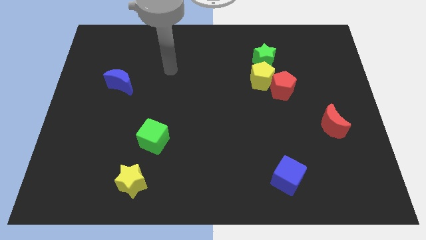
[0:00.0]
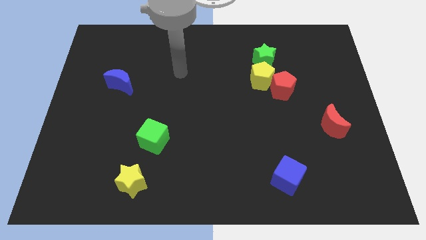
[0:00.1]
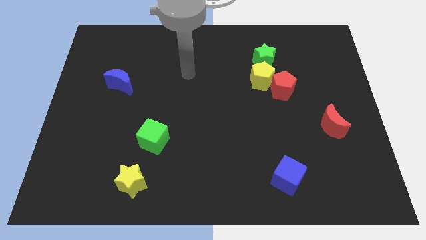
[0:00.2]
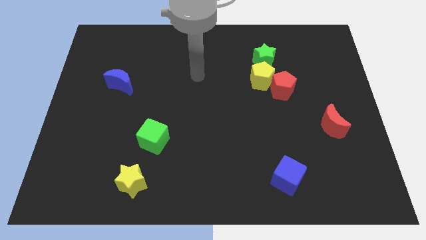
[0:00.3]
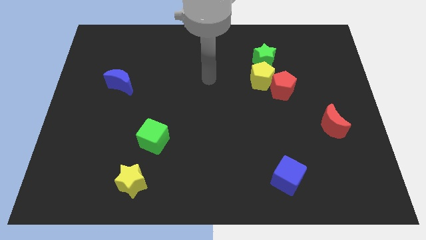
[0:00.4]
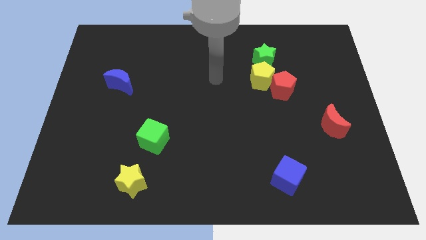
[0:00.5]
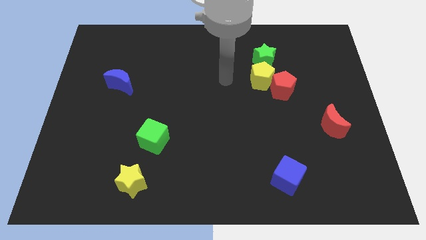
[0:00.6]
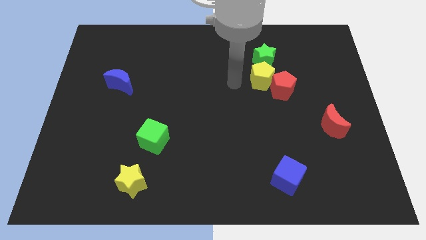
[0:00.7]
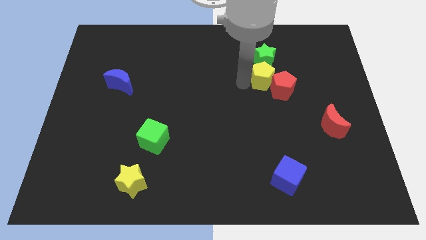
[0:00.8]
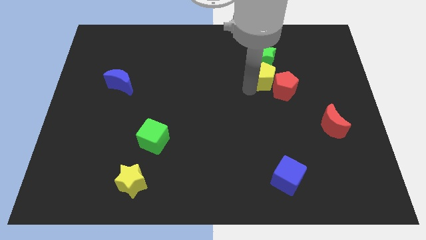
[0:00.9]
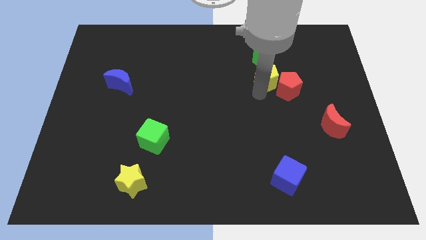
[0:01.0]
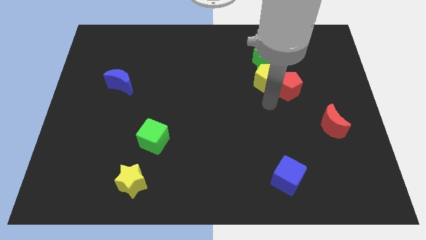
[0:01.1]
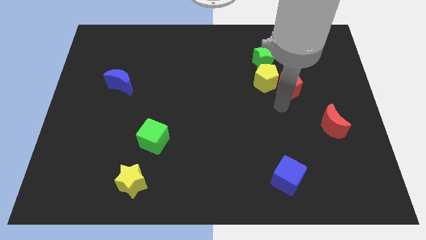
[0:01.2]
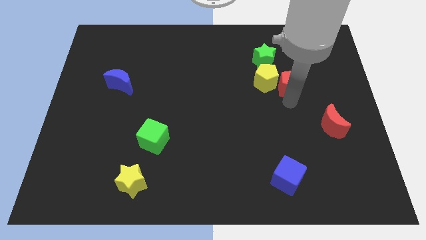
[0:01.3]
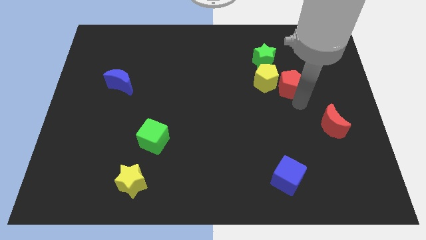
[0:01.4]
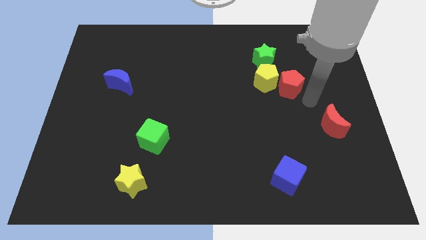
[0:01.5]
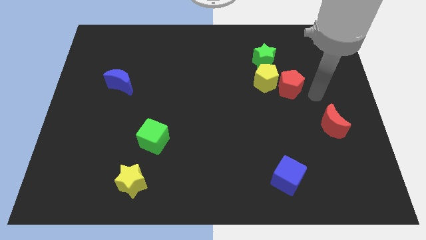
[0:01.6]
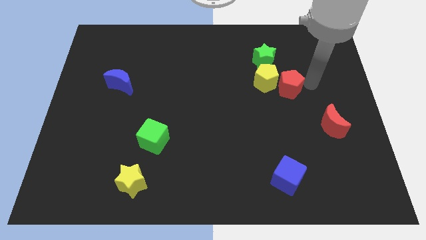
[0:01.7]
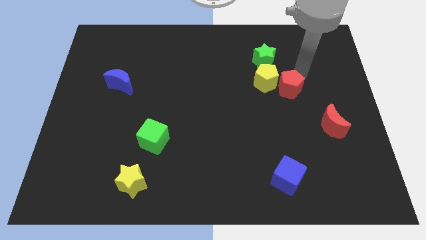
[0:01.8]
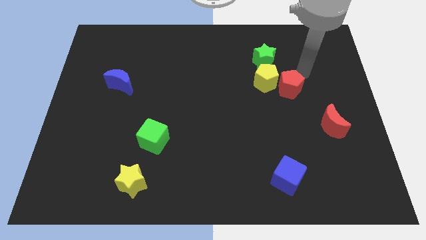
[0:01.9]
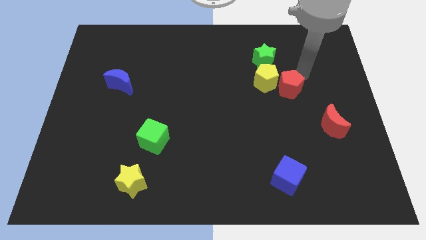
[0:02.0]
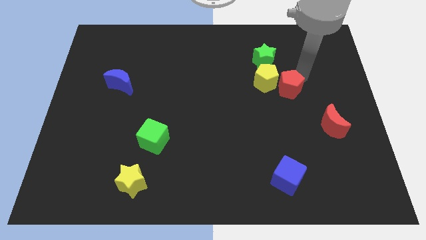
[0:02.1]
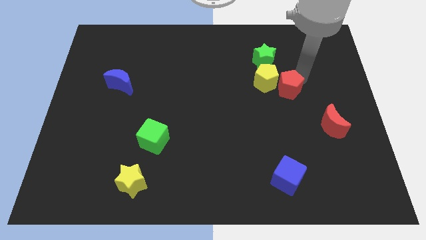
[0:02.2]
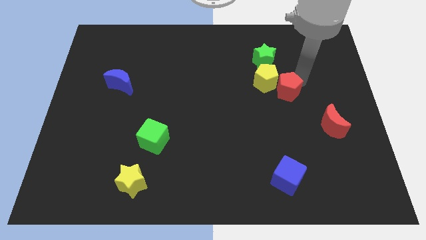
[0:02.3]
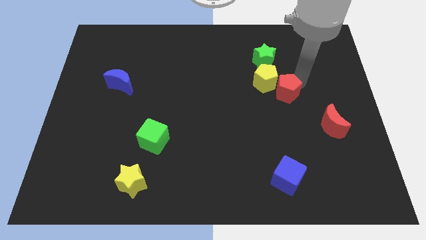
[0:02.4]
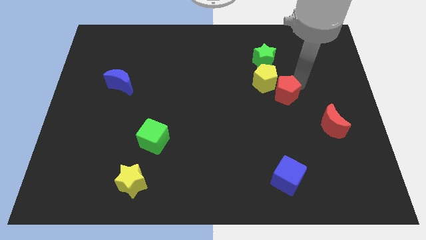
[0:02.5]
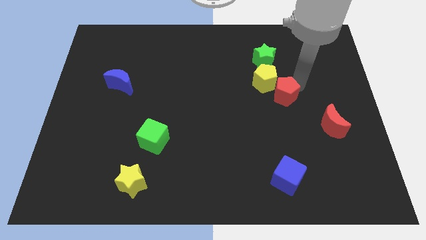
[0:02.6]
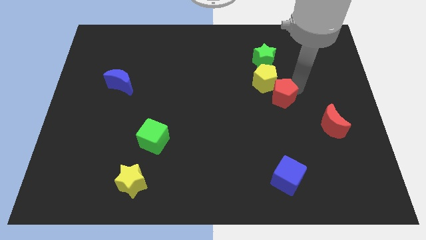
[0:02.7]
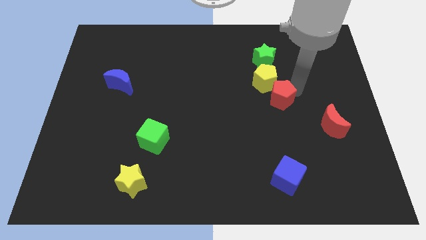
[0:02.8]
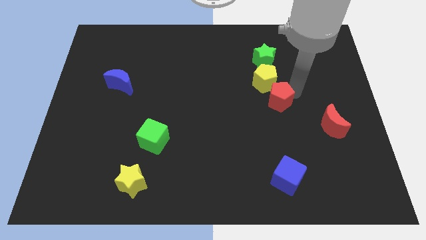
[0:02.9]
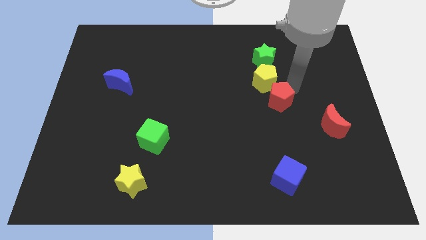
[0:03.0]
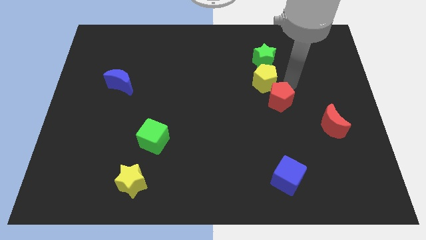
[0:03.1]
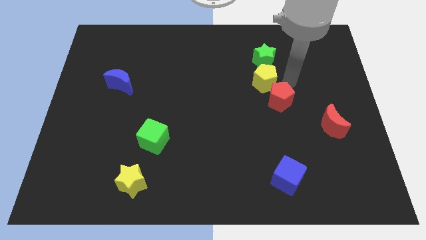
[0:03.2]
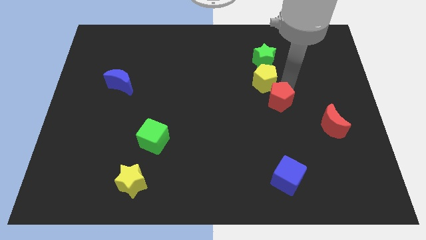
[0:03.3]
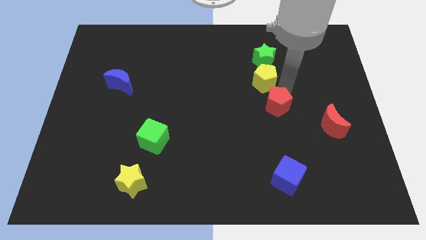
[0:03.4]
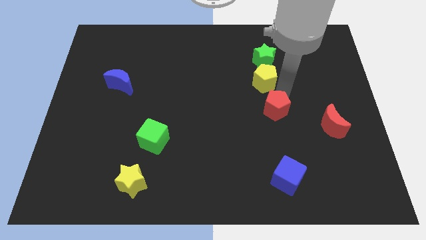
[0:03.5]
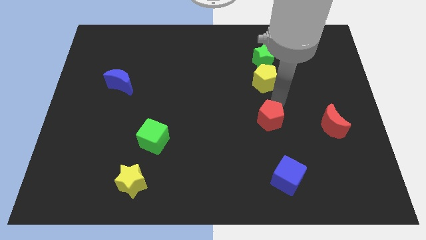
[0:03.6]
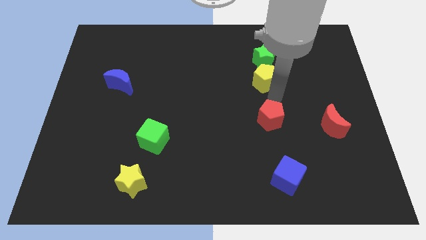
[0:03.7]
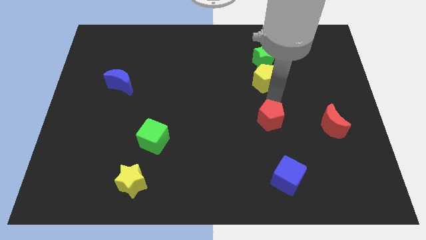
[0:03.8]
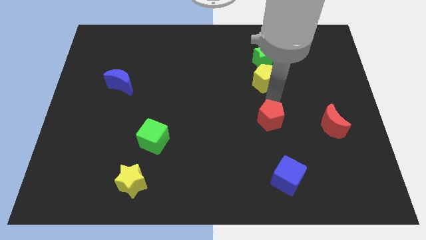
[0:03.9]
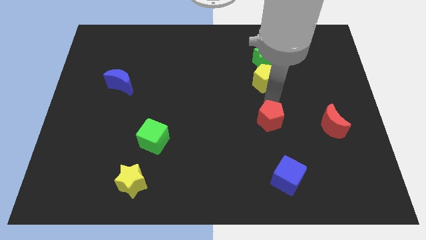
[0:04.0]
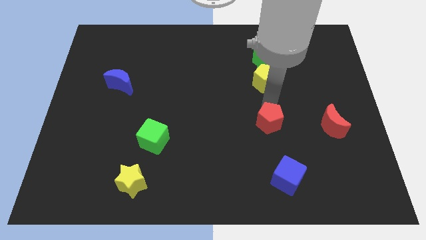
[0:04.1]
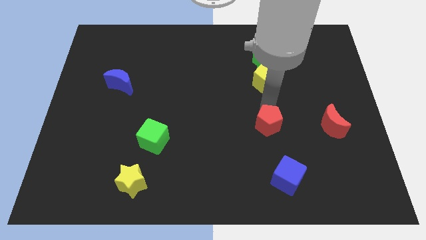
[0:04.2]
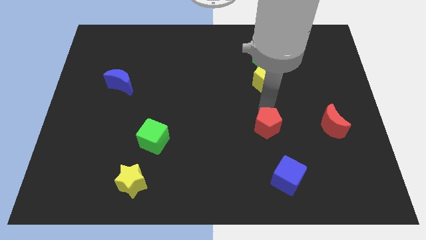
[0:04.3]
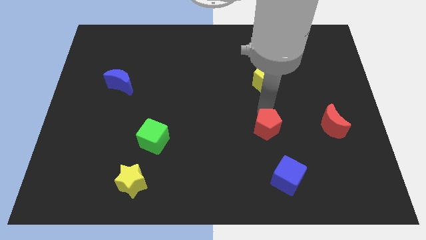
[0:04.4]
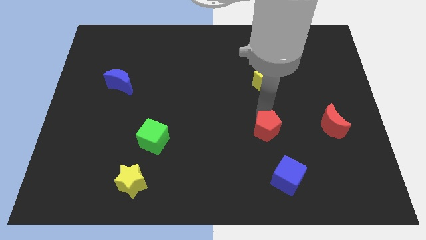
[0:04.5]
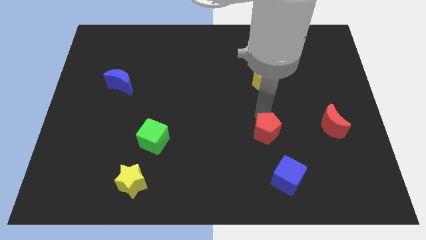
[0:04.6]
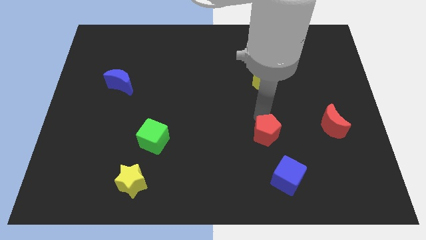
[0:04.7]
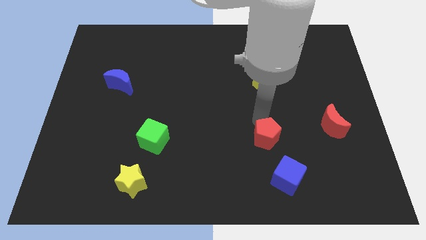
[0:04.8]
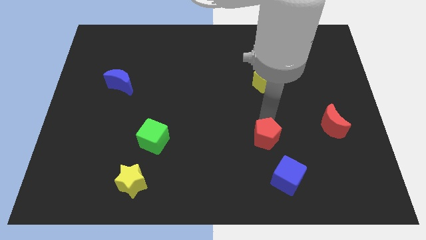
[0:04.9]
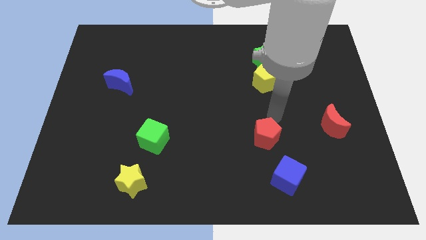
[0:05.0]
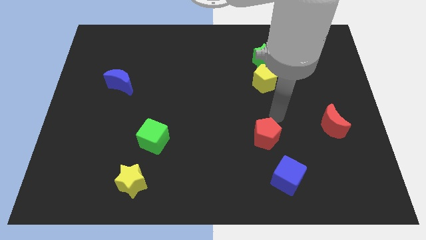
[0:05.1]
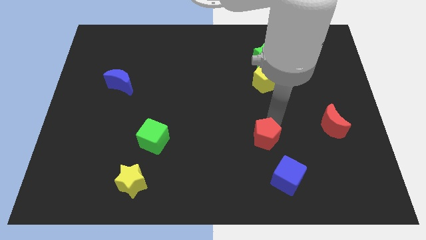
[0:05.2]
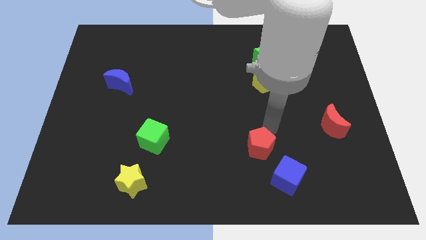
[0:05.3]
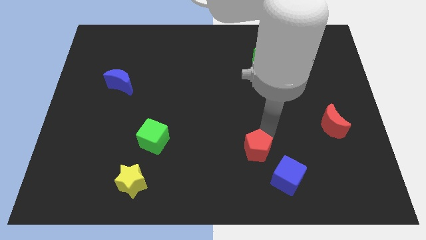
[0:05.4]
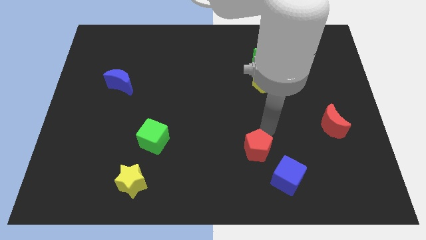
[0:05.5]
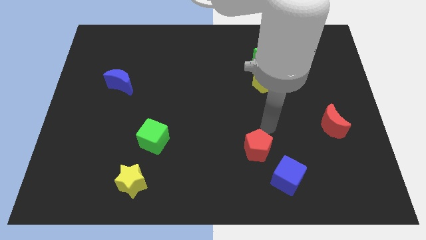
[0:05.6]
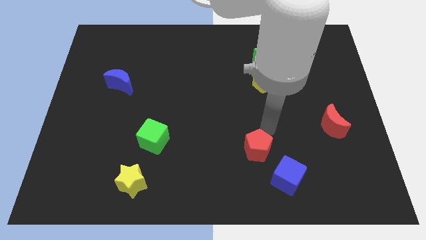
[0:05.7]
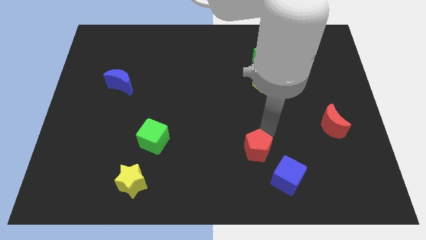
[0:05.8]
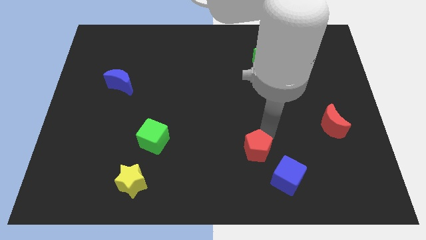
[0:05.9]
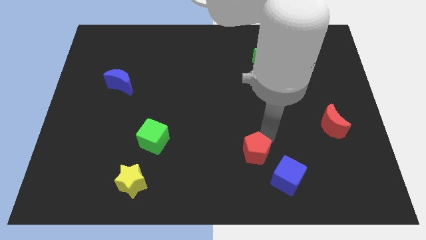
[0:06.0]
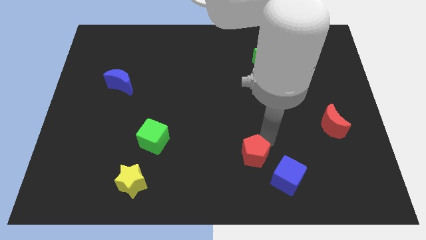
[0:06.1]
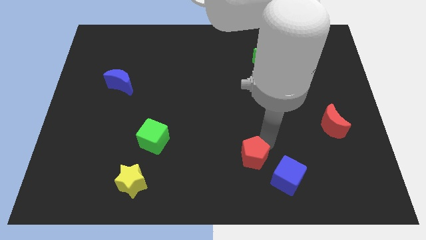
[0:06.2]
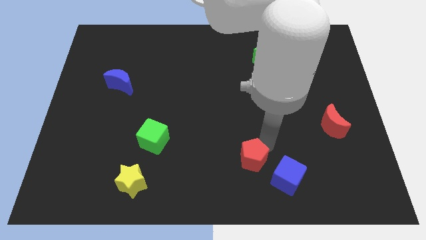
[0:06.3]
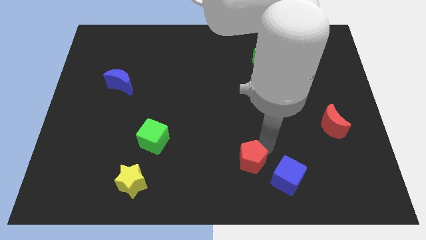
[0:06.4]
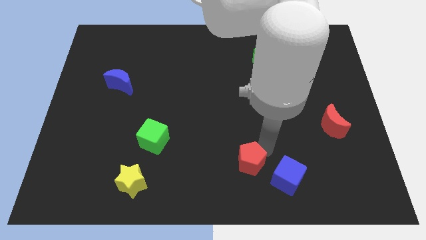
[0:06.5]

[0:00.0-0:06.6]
move the red pentagon to the bottom

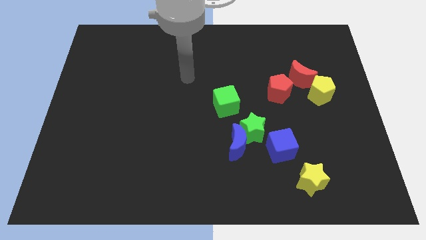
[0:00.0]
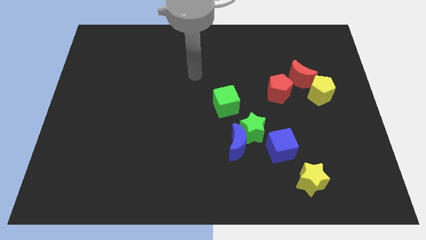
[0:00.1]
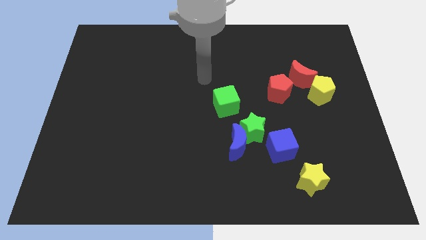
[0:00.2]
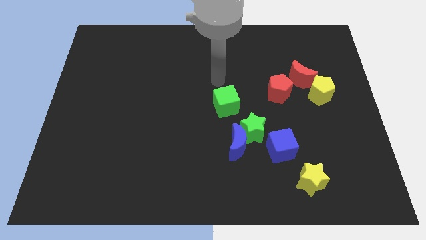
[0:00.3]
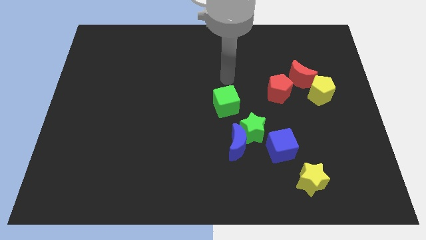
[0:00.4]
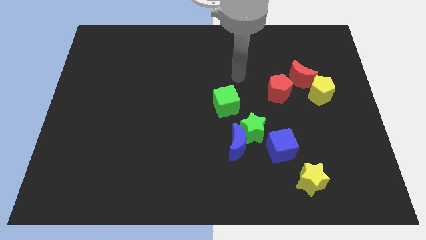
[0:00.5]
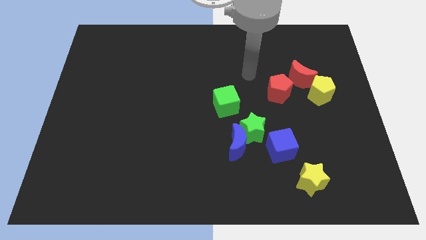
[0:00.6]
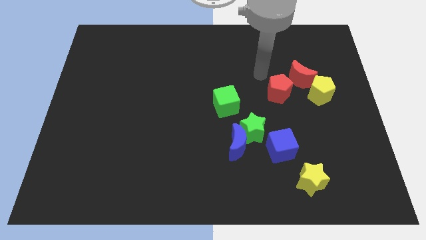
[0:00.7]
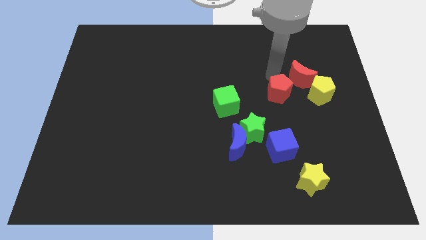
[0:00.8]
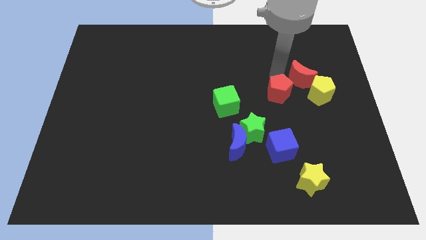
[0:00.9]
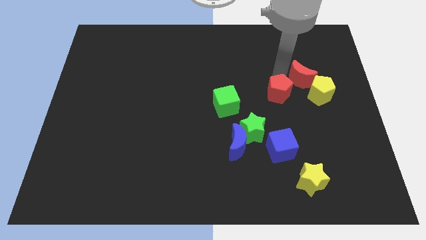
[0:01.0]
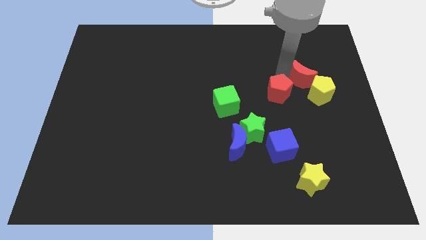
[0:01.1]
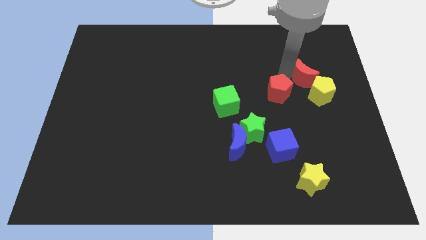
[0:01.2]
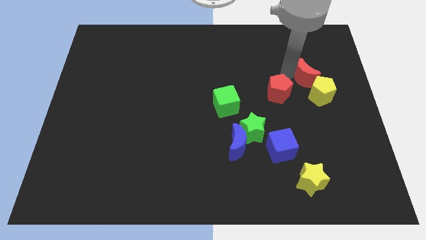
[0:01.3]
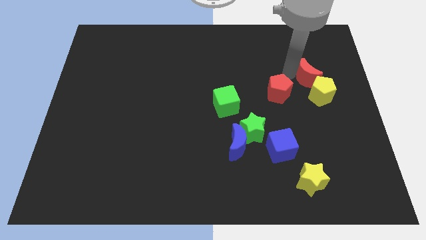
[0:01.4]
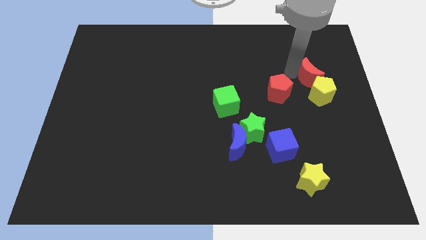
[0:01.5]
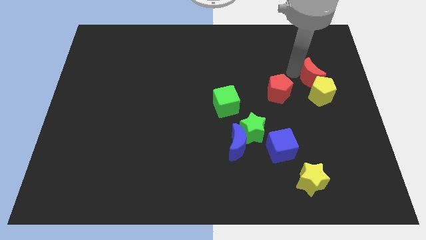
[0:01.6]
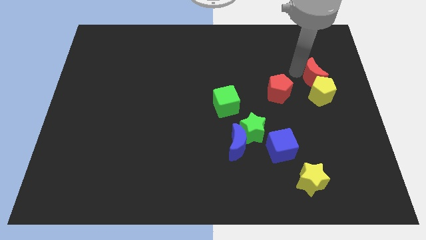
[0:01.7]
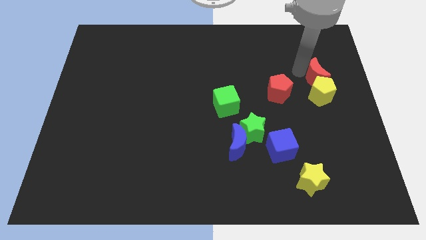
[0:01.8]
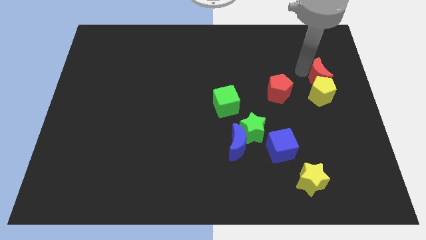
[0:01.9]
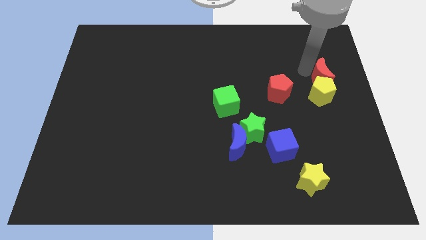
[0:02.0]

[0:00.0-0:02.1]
slide the red moon to the right side
